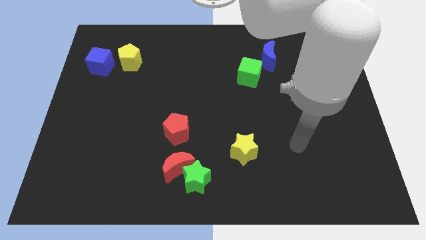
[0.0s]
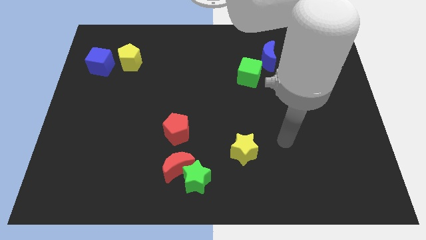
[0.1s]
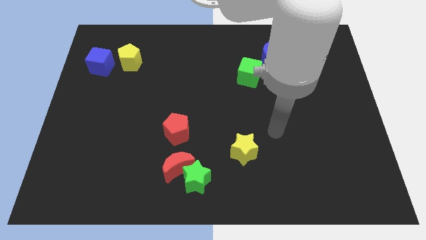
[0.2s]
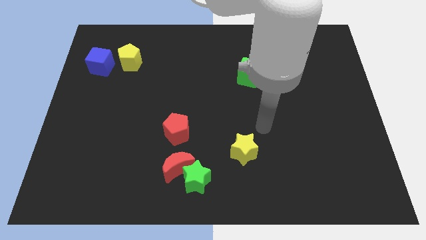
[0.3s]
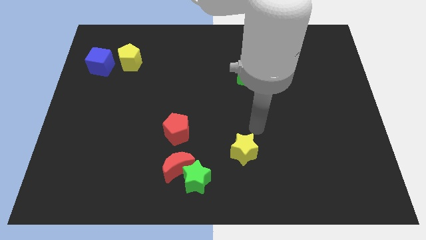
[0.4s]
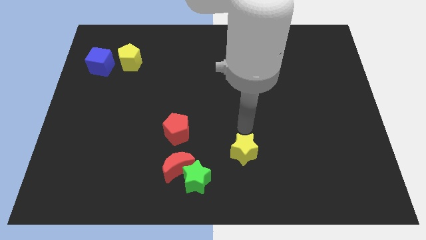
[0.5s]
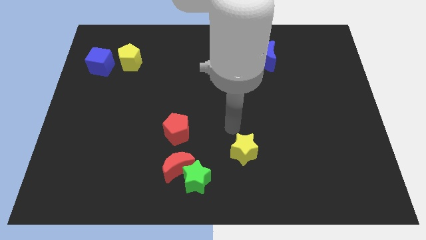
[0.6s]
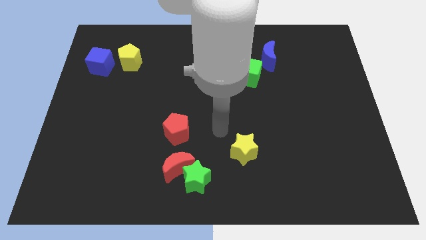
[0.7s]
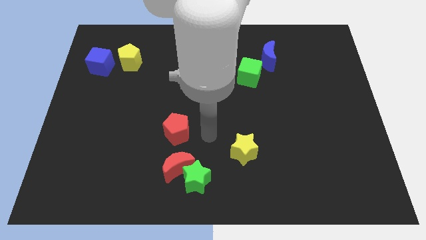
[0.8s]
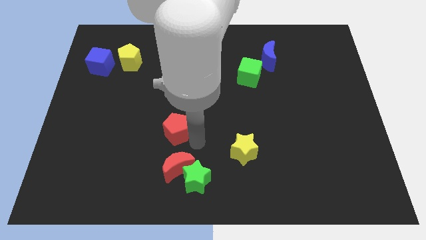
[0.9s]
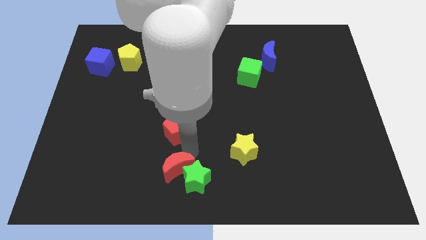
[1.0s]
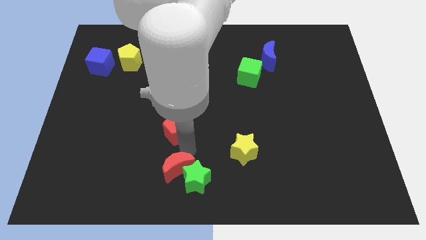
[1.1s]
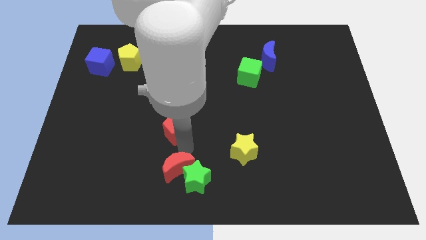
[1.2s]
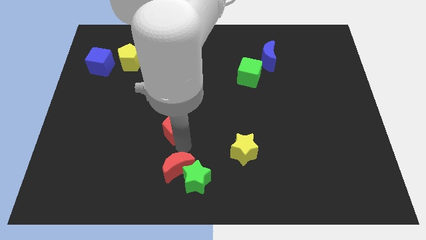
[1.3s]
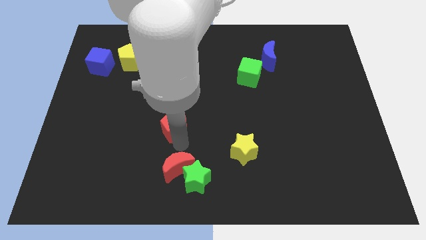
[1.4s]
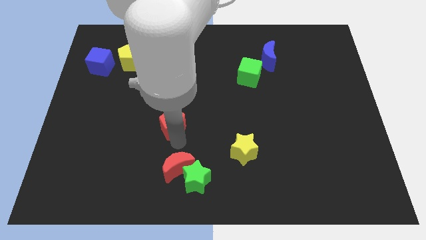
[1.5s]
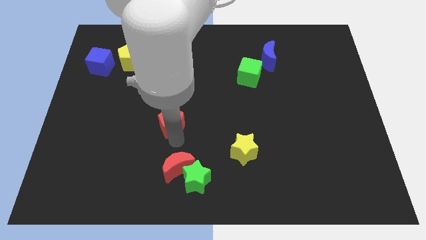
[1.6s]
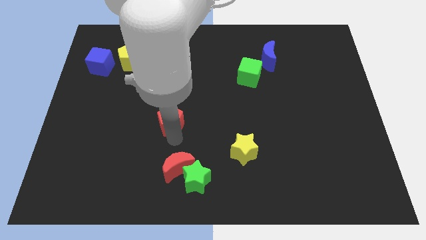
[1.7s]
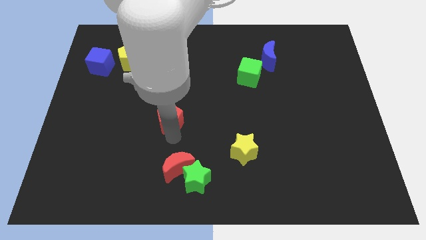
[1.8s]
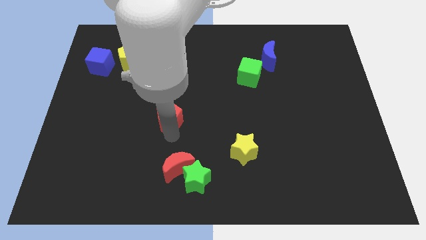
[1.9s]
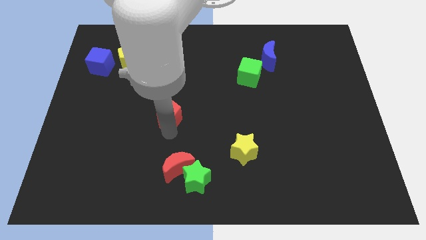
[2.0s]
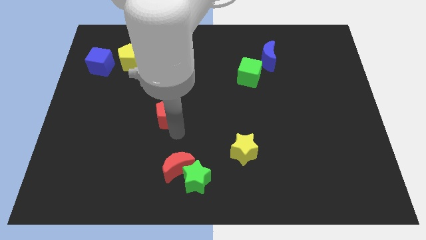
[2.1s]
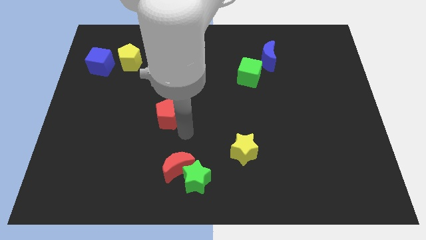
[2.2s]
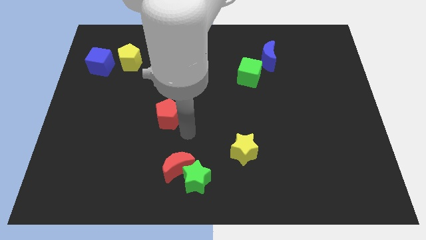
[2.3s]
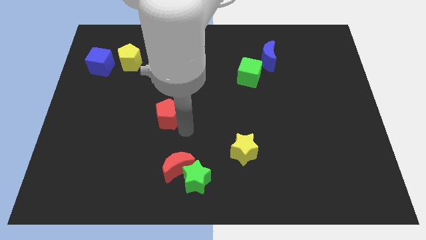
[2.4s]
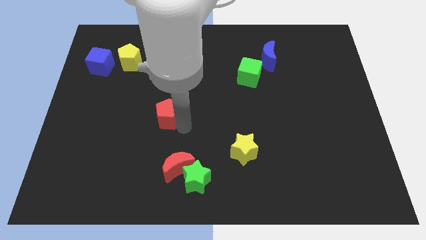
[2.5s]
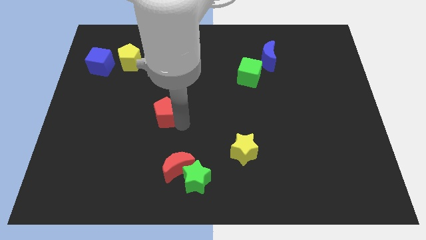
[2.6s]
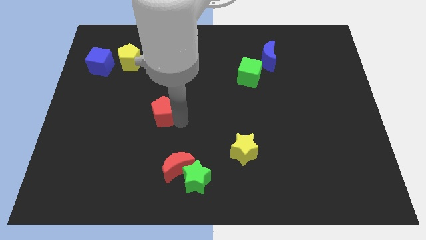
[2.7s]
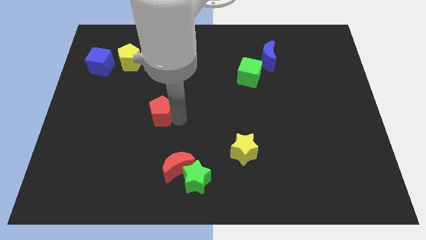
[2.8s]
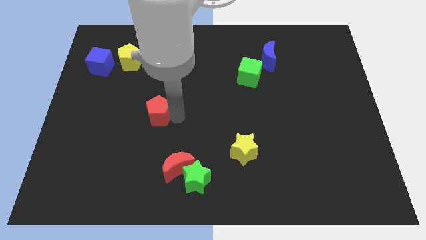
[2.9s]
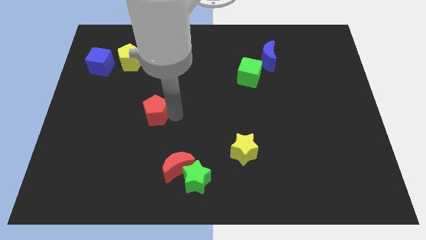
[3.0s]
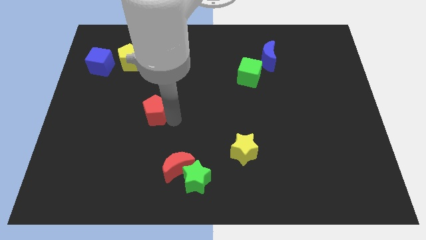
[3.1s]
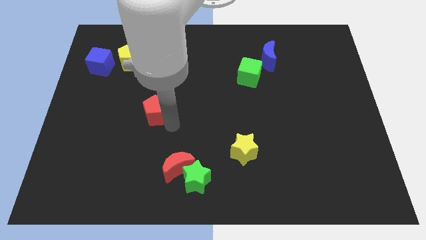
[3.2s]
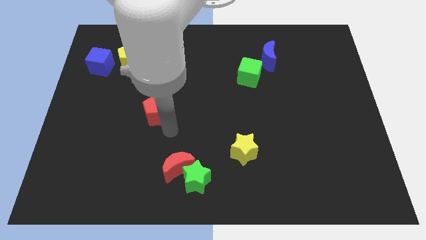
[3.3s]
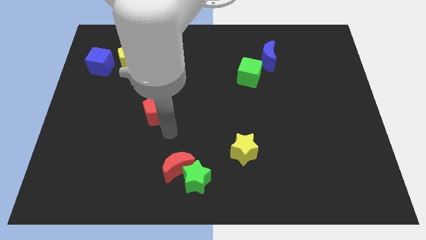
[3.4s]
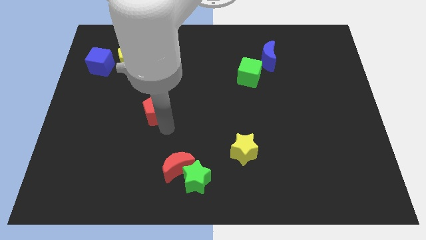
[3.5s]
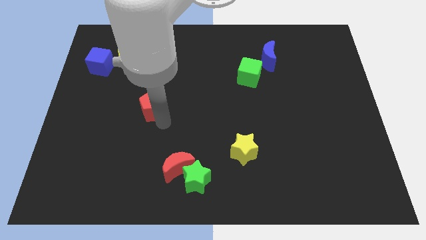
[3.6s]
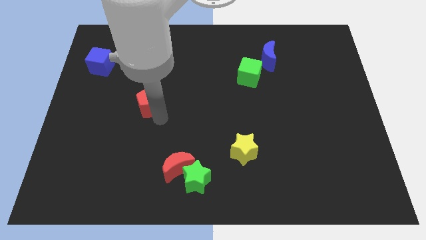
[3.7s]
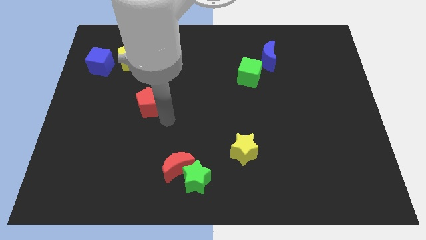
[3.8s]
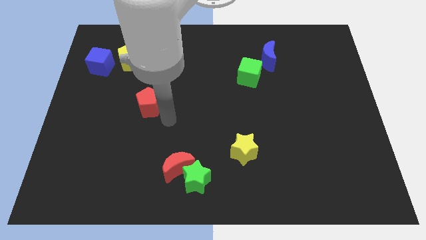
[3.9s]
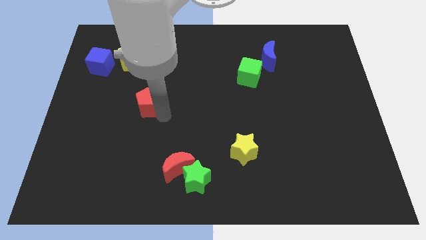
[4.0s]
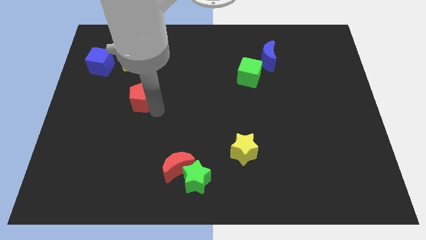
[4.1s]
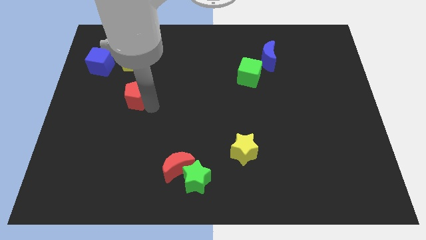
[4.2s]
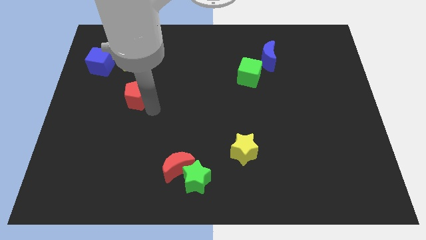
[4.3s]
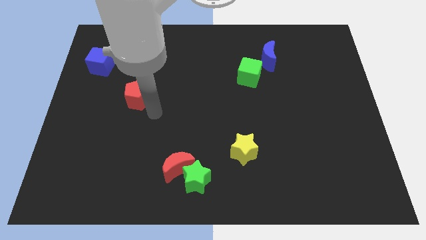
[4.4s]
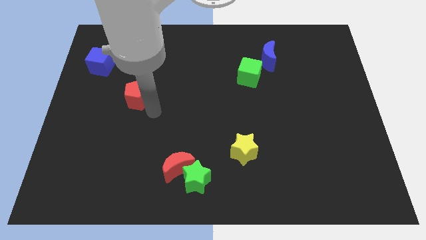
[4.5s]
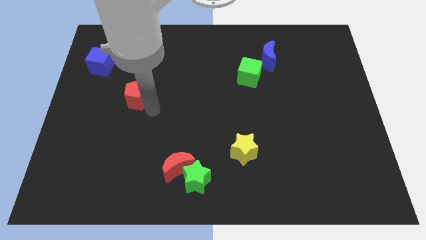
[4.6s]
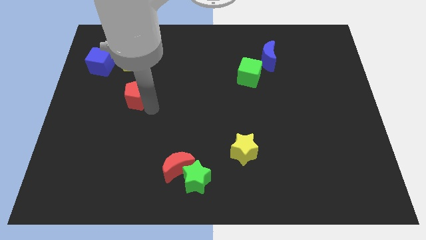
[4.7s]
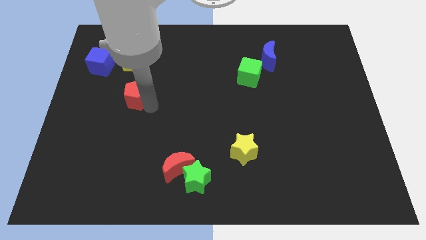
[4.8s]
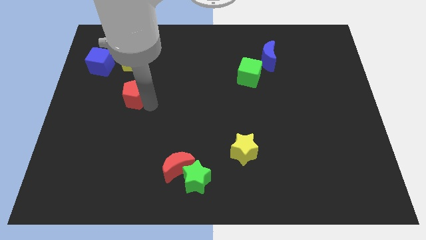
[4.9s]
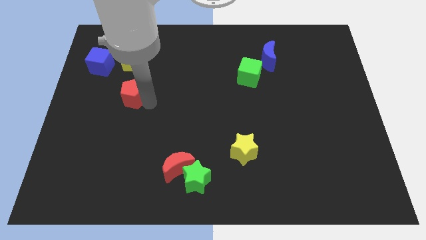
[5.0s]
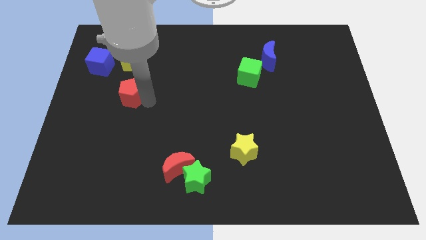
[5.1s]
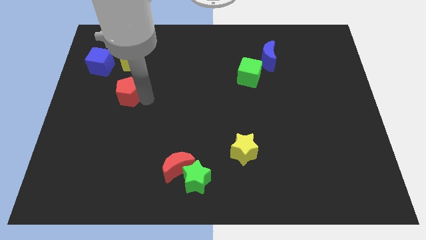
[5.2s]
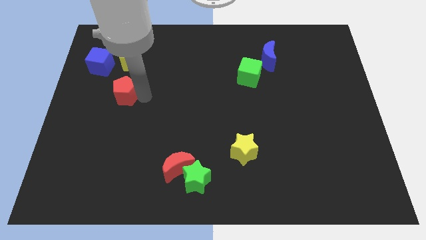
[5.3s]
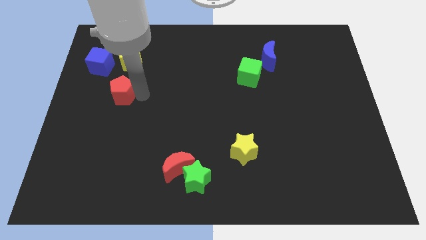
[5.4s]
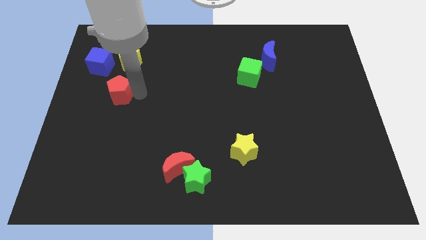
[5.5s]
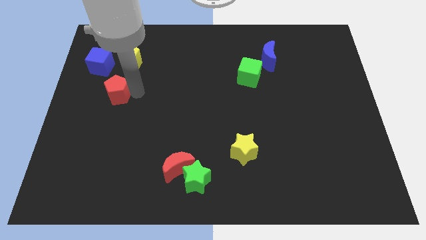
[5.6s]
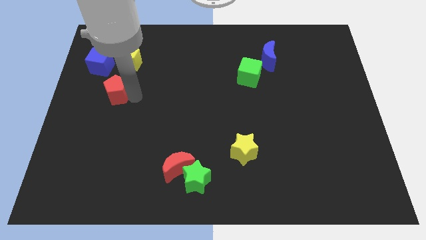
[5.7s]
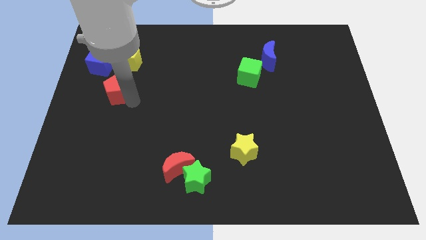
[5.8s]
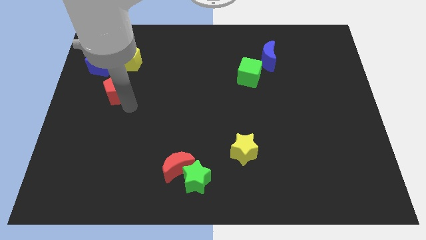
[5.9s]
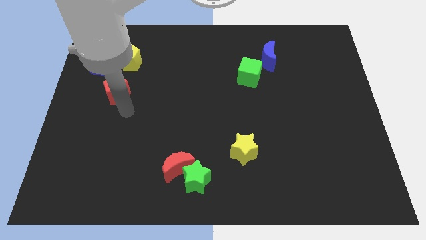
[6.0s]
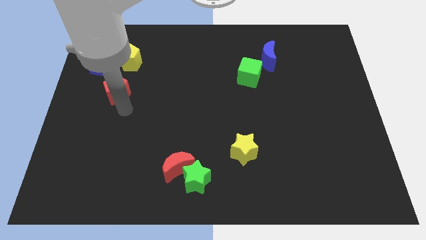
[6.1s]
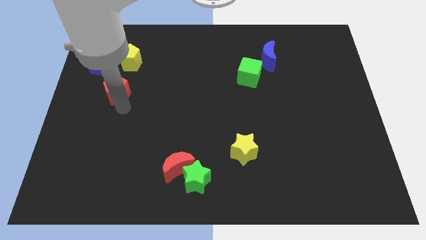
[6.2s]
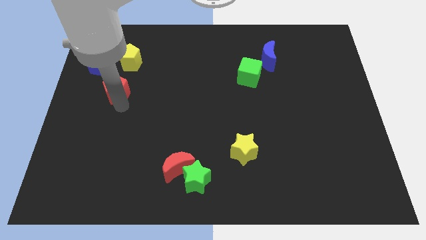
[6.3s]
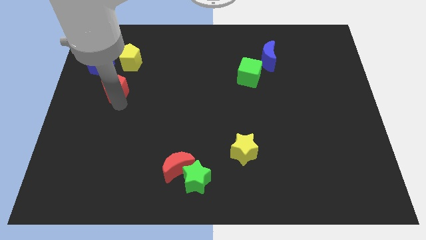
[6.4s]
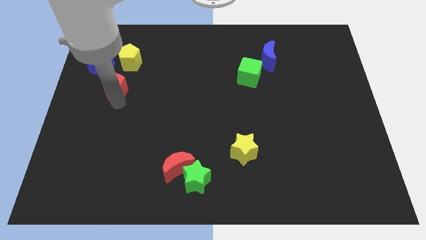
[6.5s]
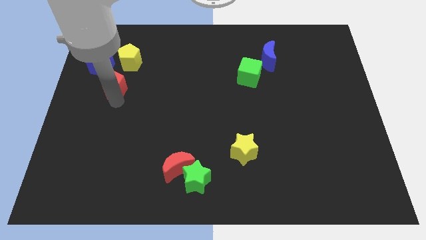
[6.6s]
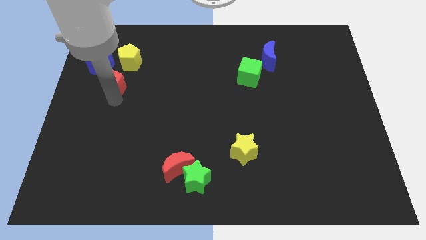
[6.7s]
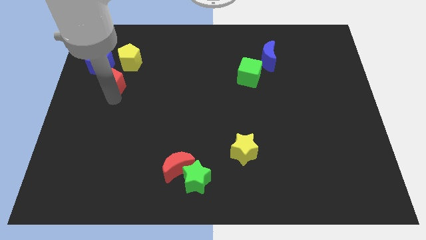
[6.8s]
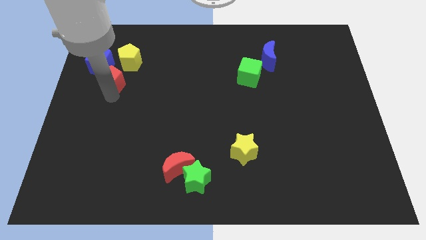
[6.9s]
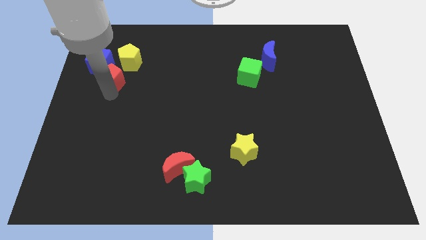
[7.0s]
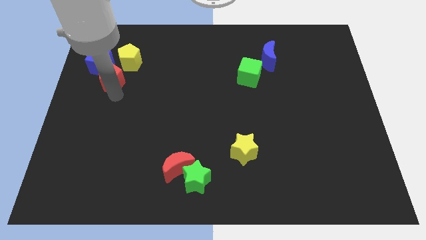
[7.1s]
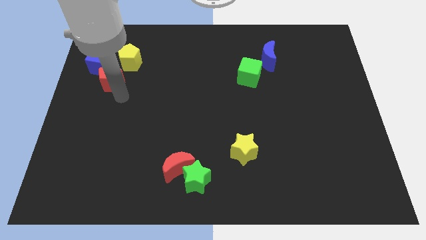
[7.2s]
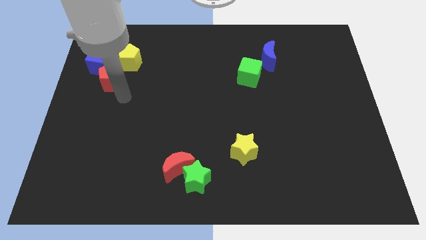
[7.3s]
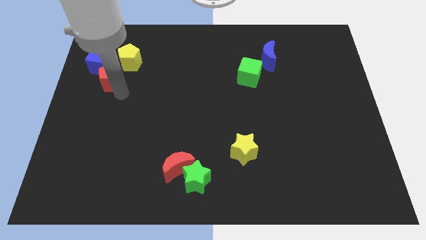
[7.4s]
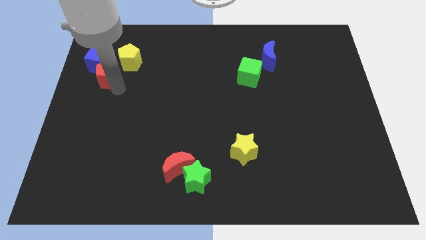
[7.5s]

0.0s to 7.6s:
push the red pentagon close to the blue cube
